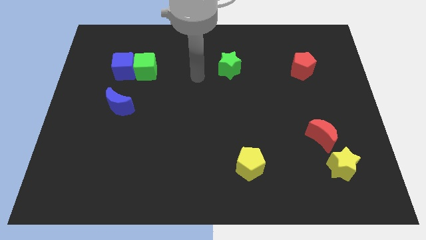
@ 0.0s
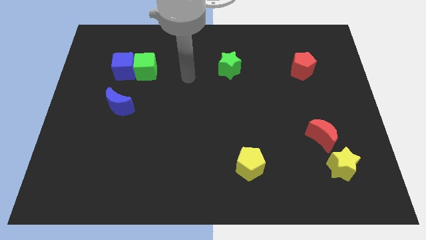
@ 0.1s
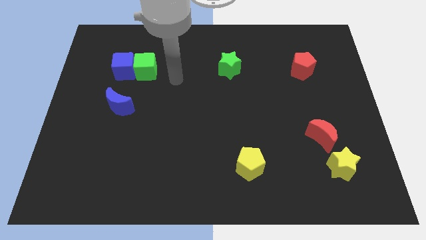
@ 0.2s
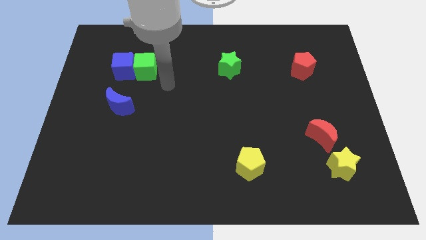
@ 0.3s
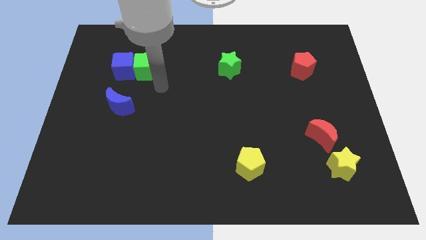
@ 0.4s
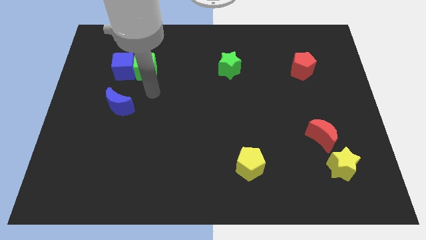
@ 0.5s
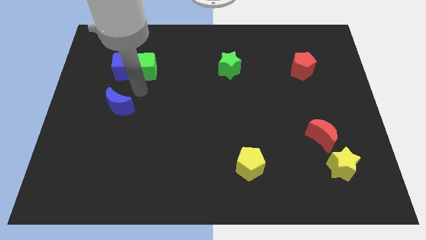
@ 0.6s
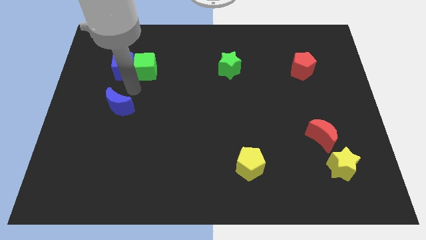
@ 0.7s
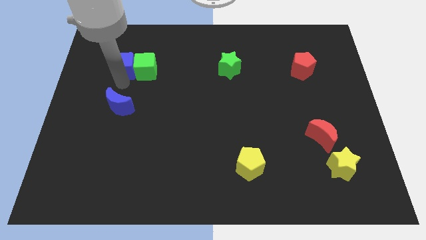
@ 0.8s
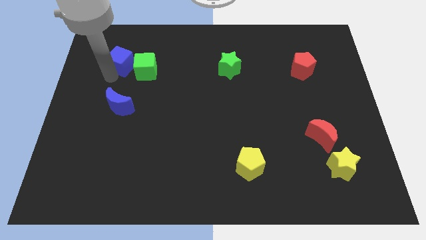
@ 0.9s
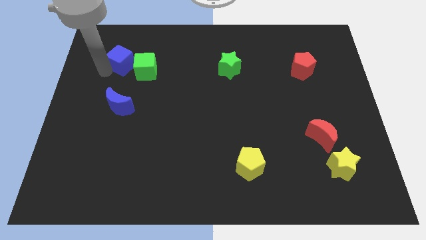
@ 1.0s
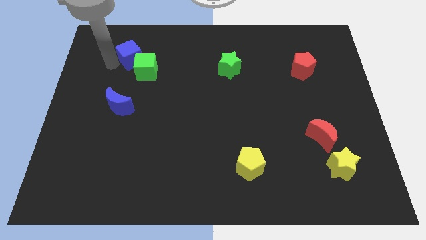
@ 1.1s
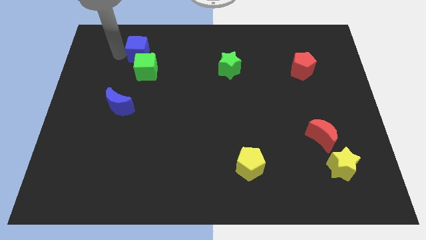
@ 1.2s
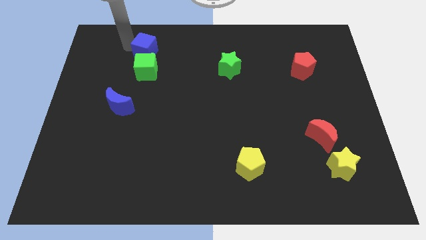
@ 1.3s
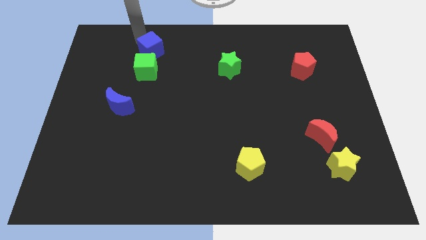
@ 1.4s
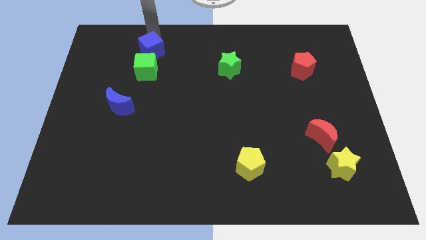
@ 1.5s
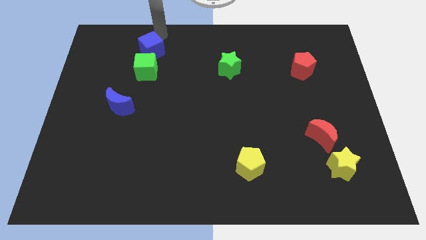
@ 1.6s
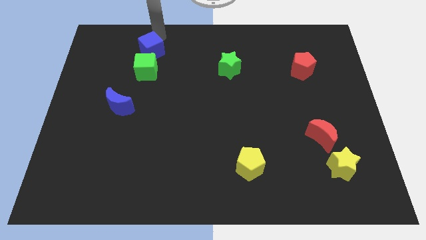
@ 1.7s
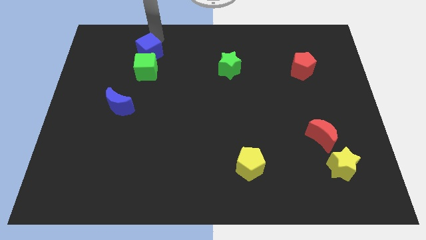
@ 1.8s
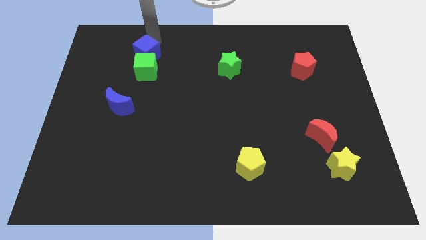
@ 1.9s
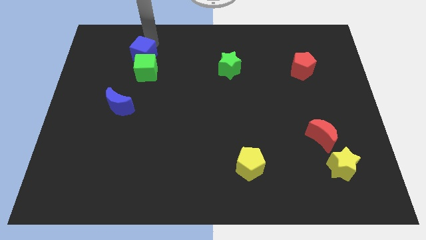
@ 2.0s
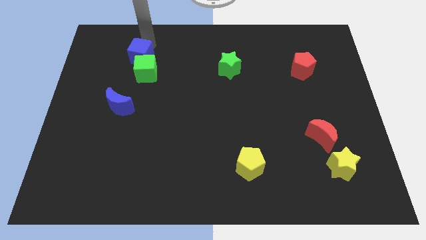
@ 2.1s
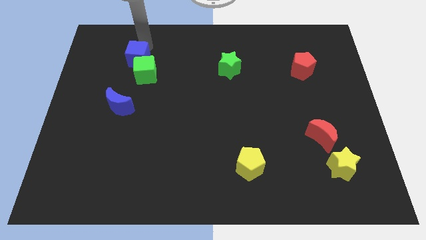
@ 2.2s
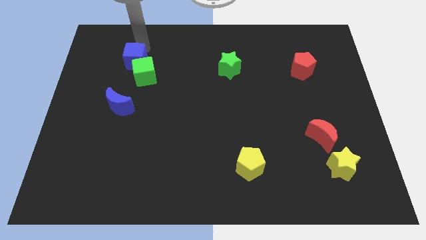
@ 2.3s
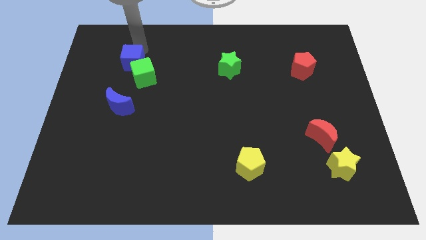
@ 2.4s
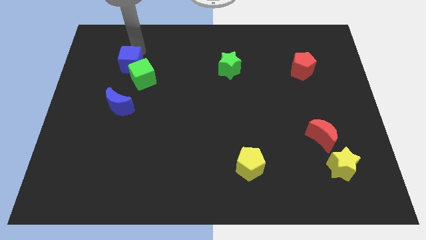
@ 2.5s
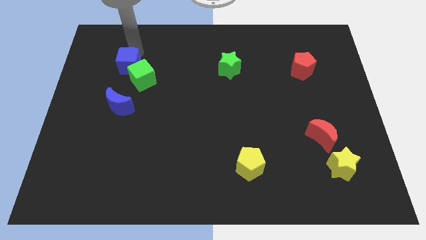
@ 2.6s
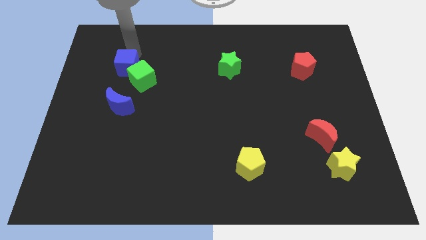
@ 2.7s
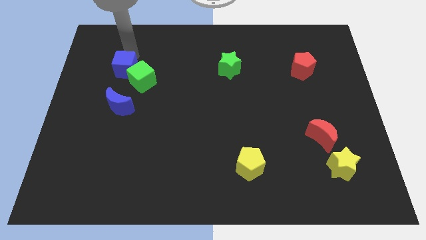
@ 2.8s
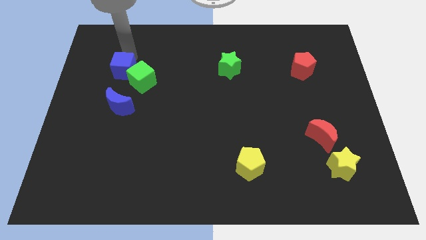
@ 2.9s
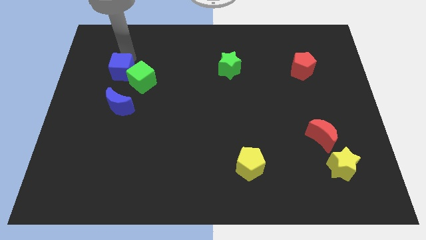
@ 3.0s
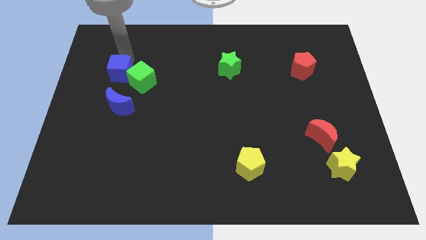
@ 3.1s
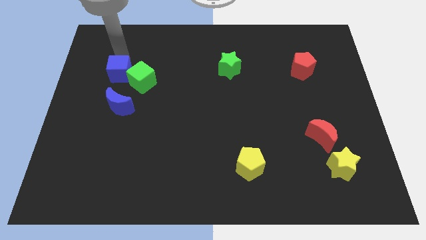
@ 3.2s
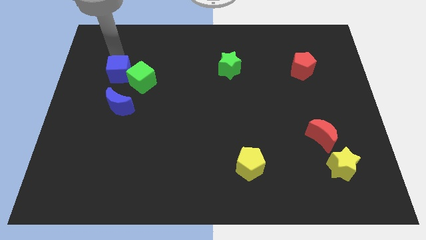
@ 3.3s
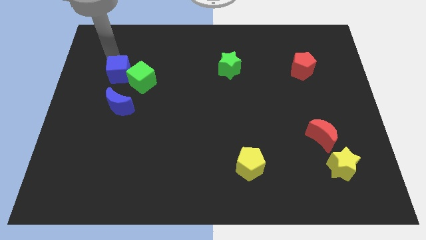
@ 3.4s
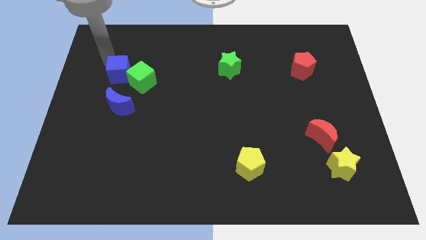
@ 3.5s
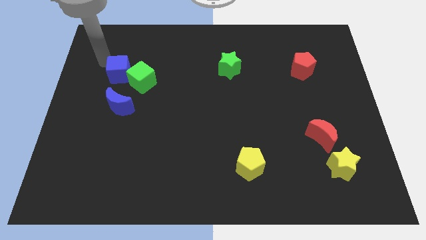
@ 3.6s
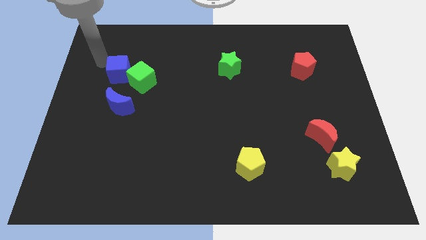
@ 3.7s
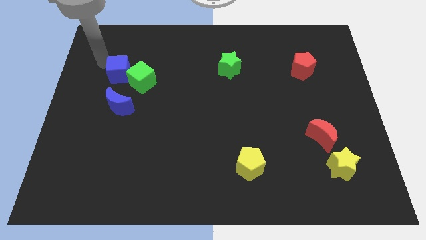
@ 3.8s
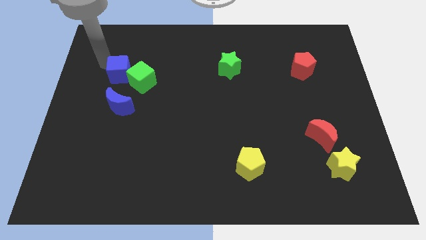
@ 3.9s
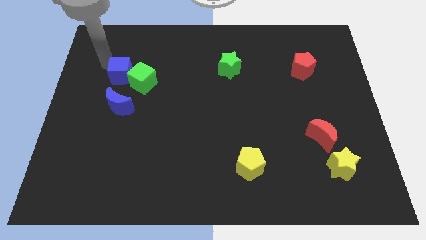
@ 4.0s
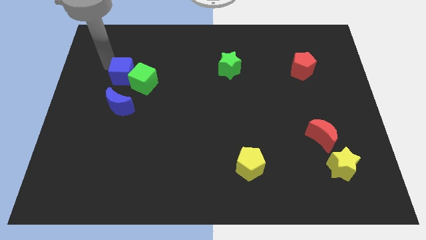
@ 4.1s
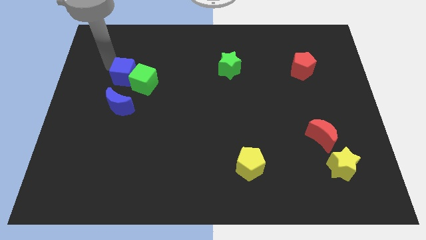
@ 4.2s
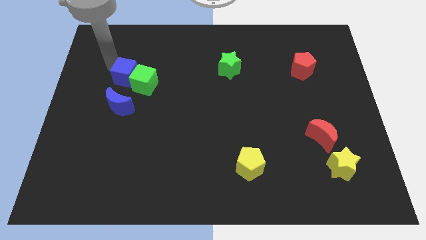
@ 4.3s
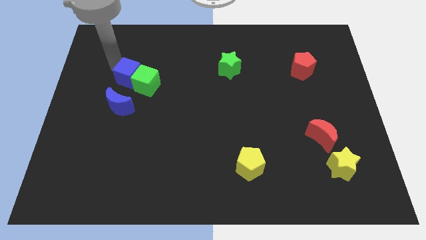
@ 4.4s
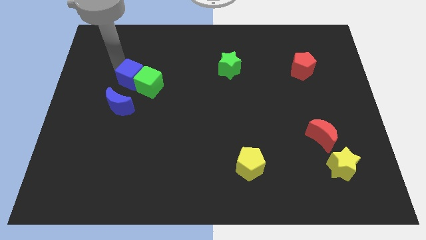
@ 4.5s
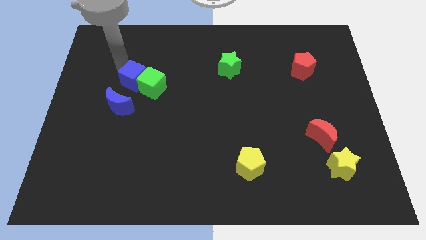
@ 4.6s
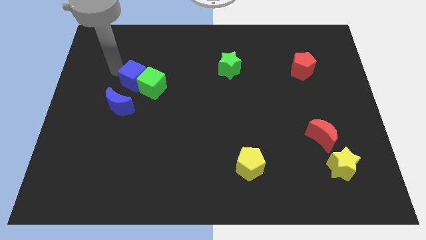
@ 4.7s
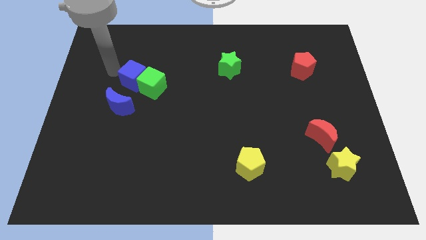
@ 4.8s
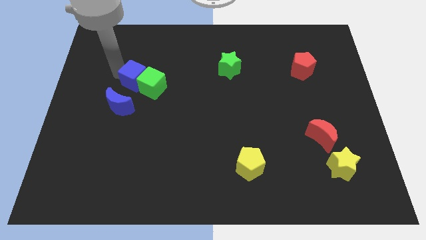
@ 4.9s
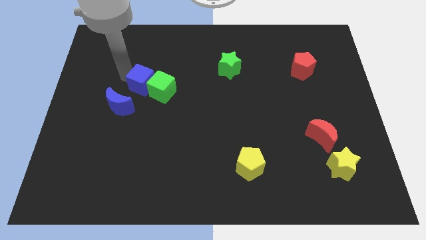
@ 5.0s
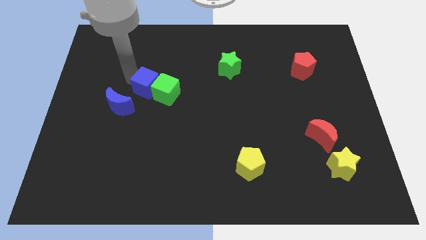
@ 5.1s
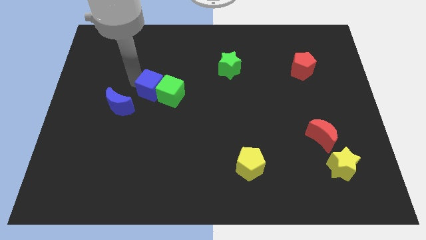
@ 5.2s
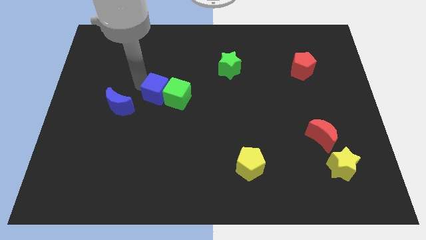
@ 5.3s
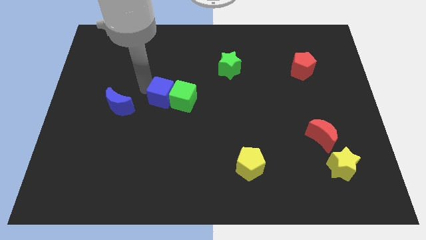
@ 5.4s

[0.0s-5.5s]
slide the blue cube to the middle of the board
